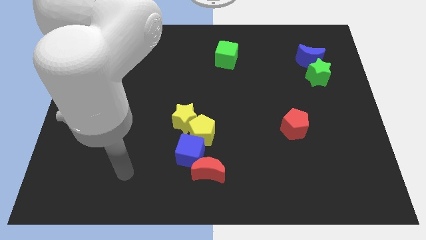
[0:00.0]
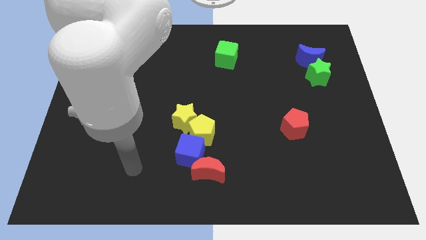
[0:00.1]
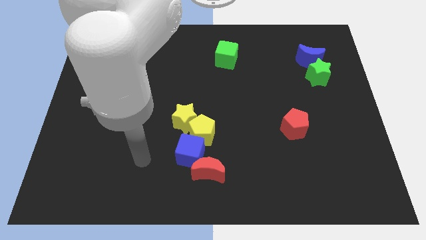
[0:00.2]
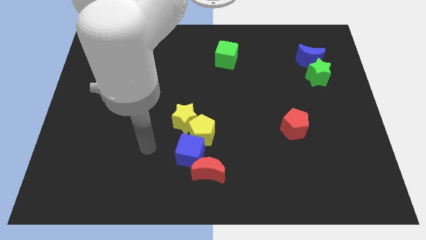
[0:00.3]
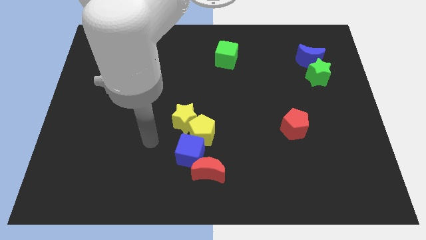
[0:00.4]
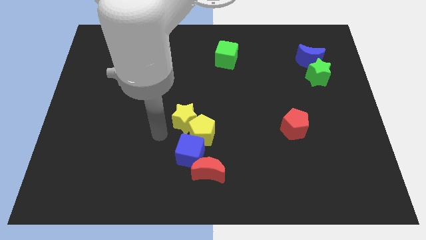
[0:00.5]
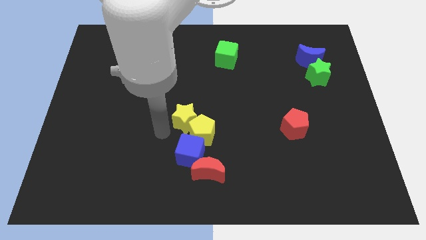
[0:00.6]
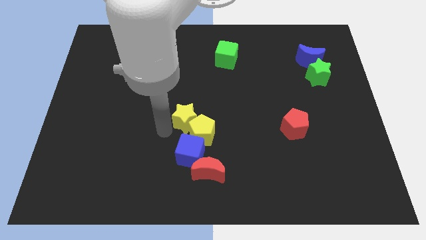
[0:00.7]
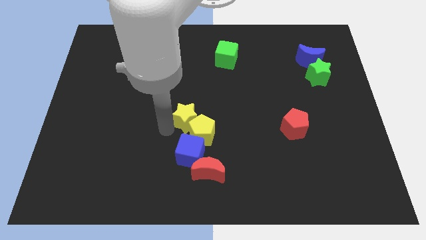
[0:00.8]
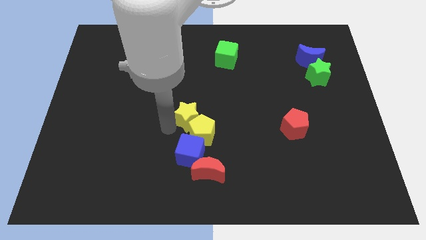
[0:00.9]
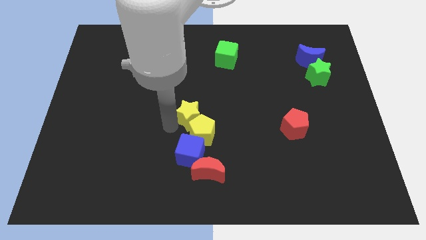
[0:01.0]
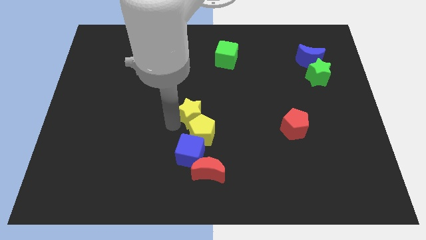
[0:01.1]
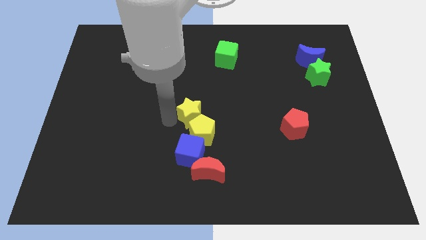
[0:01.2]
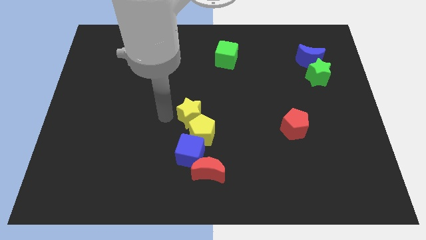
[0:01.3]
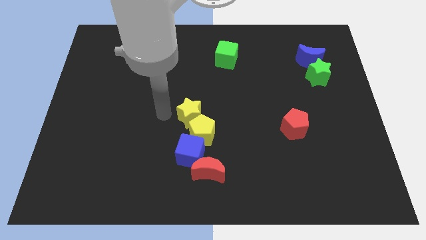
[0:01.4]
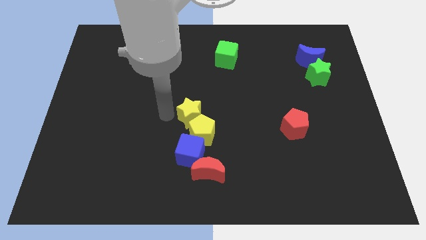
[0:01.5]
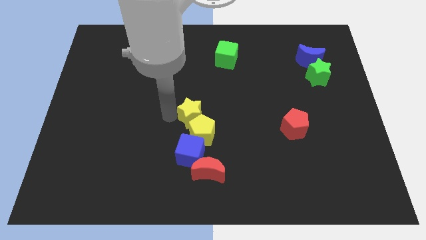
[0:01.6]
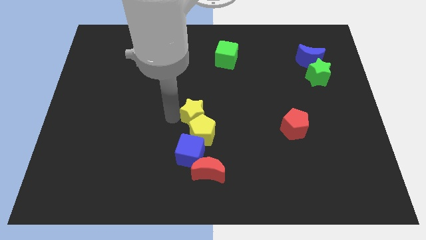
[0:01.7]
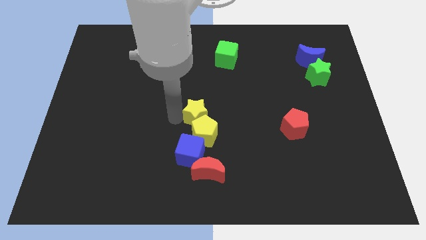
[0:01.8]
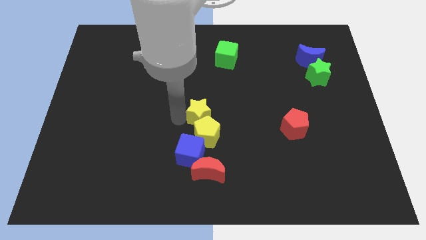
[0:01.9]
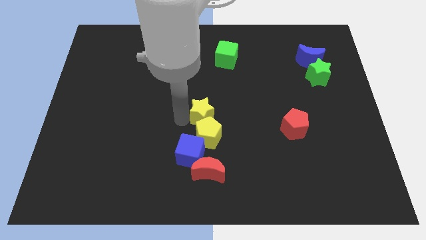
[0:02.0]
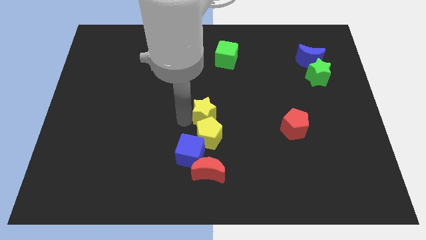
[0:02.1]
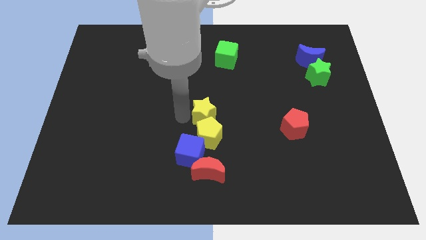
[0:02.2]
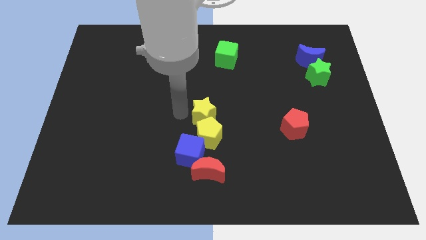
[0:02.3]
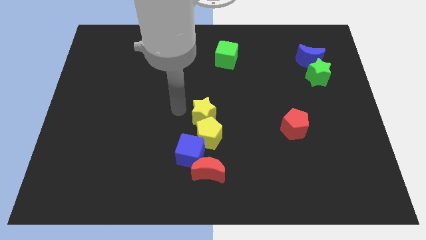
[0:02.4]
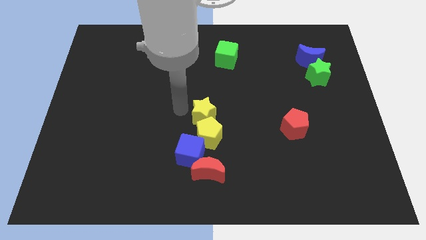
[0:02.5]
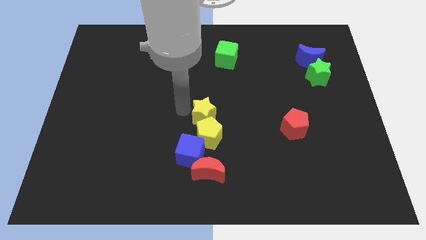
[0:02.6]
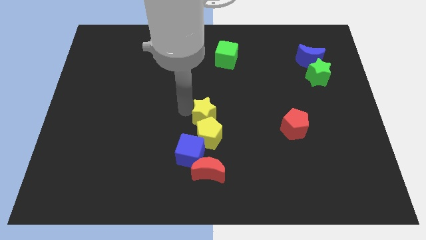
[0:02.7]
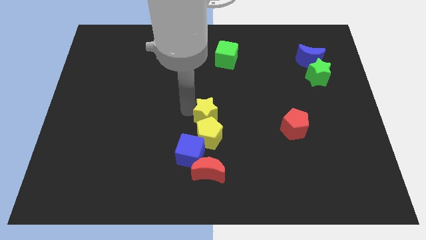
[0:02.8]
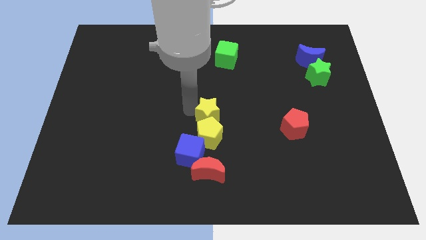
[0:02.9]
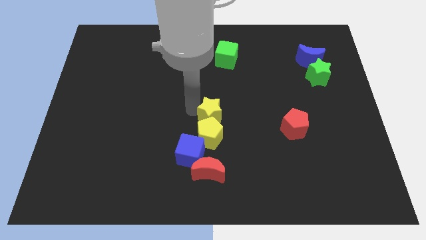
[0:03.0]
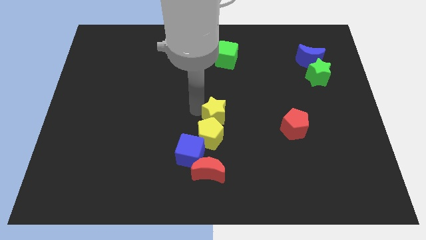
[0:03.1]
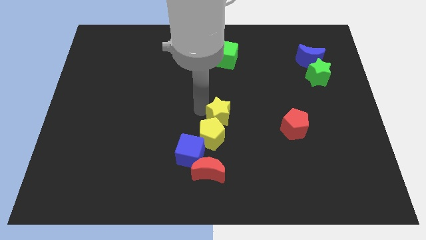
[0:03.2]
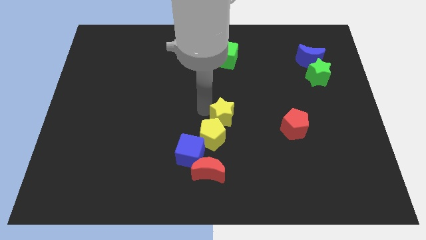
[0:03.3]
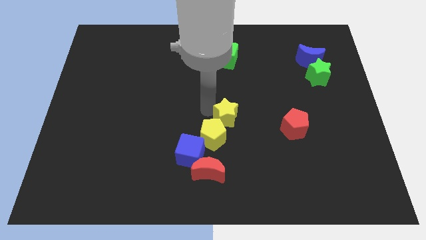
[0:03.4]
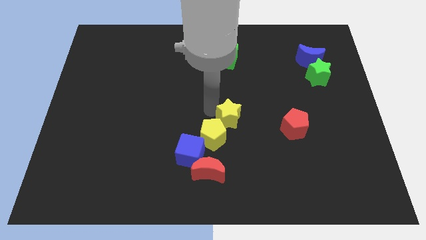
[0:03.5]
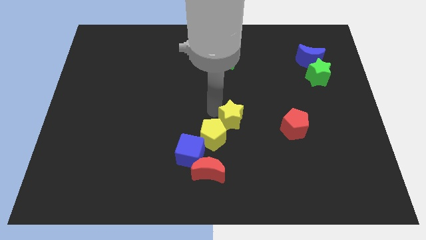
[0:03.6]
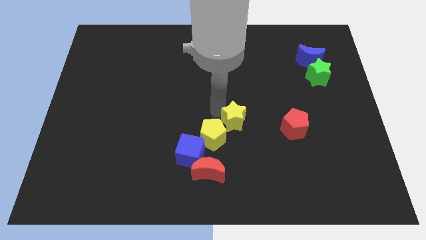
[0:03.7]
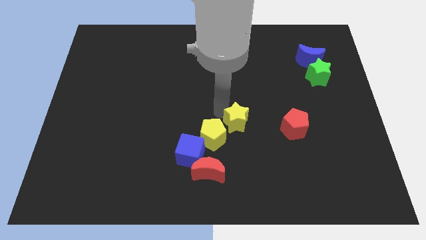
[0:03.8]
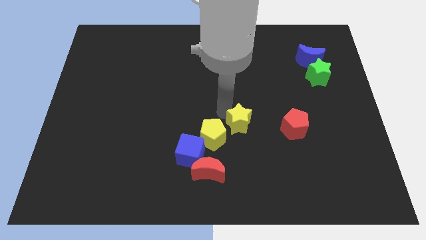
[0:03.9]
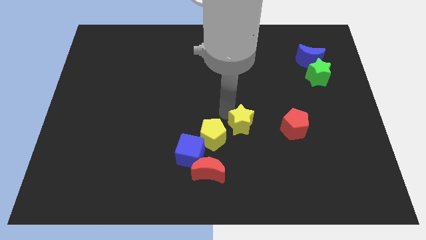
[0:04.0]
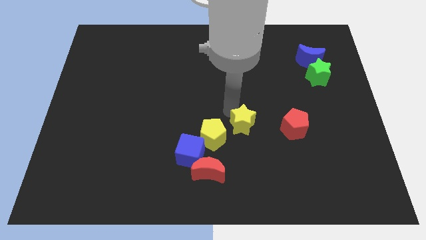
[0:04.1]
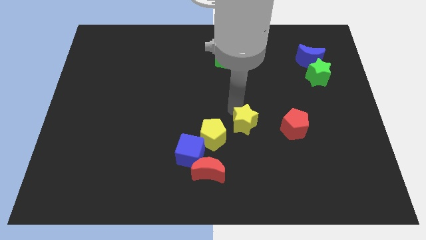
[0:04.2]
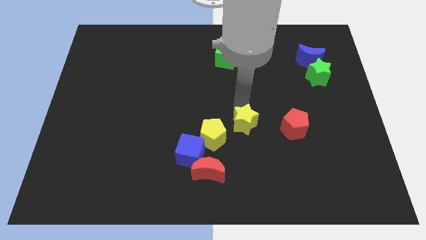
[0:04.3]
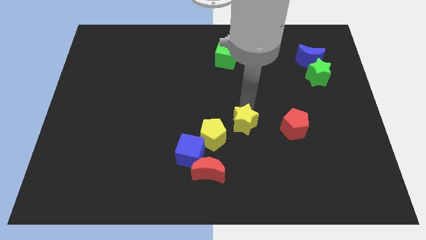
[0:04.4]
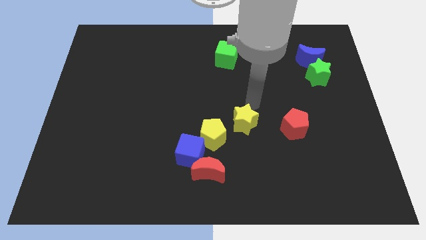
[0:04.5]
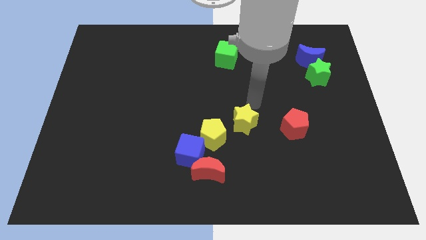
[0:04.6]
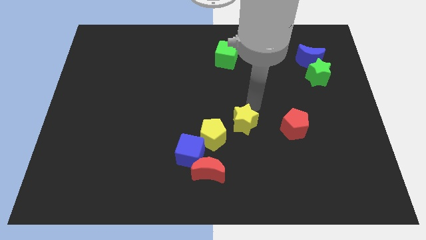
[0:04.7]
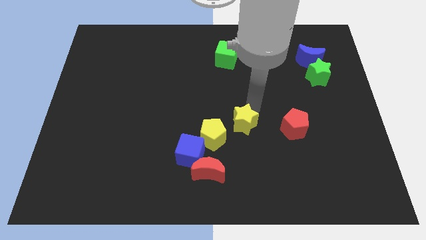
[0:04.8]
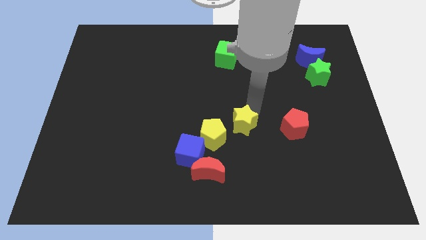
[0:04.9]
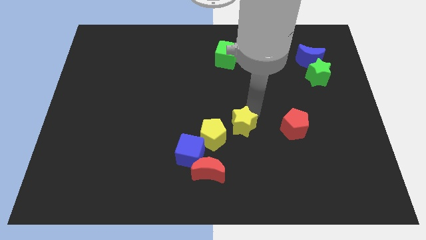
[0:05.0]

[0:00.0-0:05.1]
slightly push the yellow star diagonally downwards and right

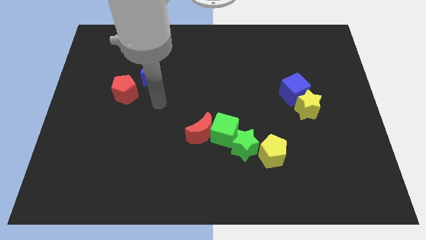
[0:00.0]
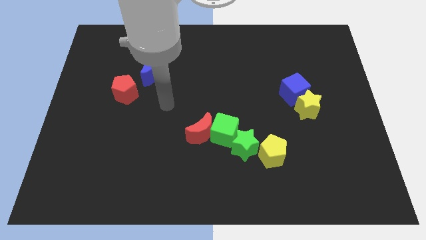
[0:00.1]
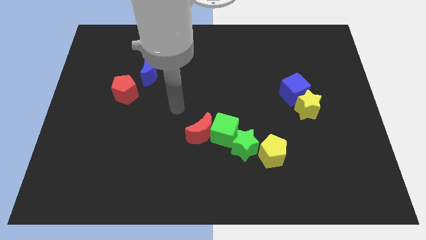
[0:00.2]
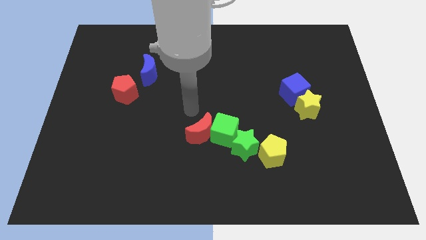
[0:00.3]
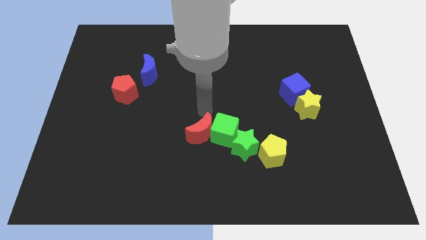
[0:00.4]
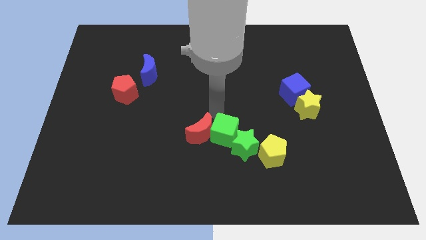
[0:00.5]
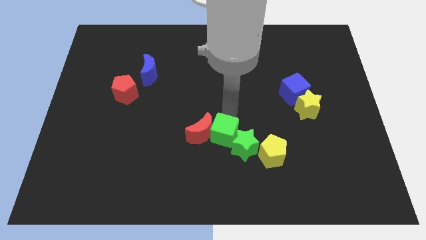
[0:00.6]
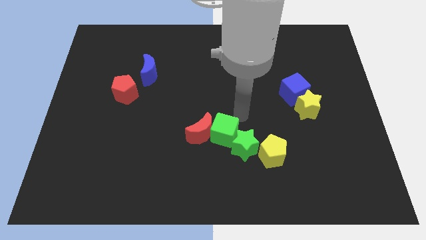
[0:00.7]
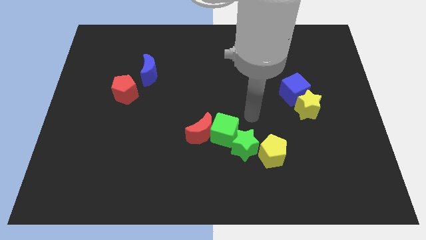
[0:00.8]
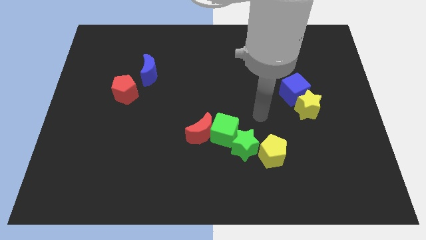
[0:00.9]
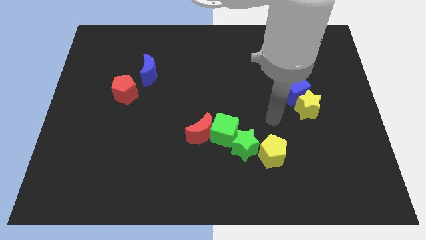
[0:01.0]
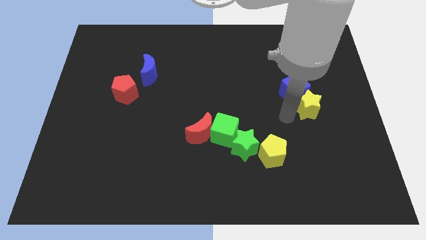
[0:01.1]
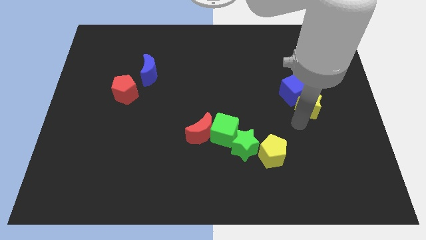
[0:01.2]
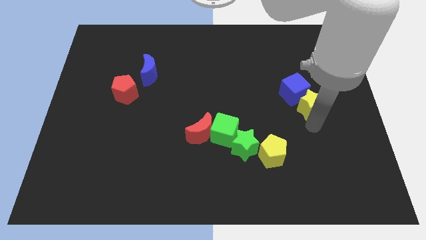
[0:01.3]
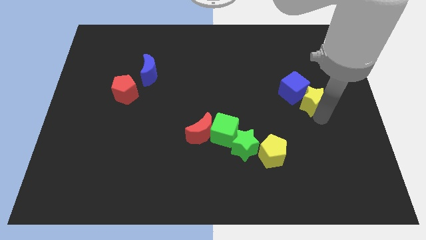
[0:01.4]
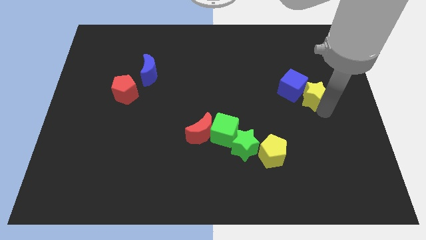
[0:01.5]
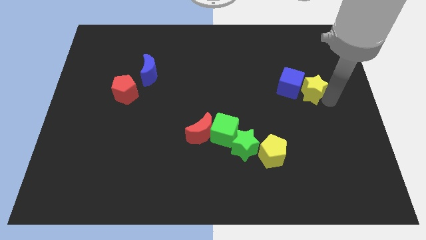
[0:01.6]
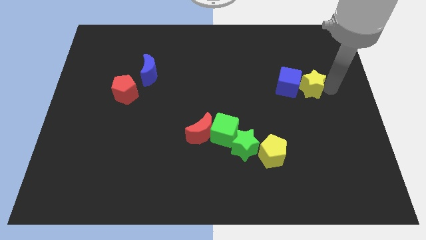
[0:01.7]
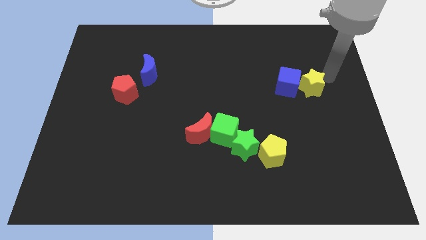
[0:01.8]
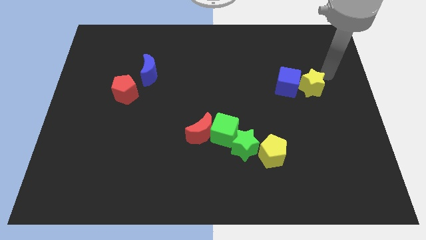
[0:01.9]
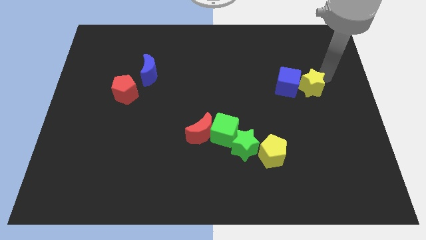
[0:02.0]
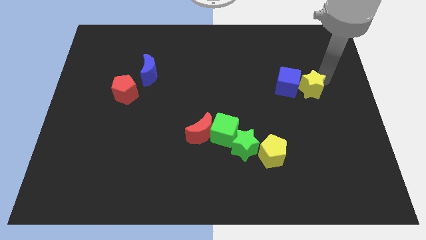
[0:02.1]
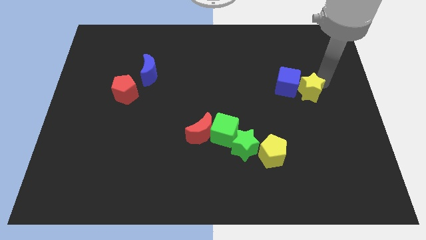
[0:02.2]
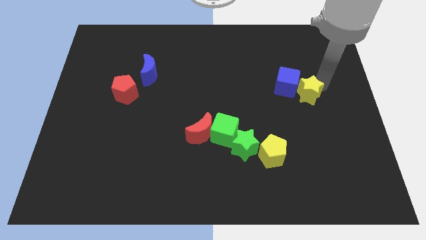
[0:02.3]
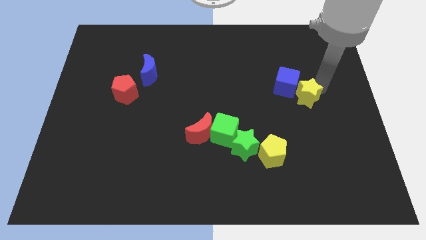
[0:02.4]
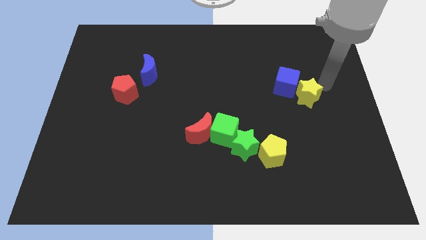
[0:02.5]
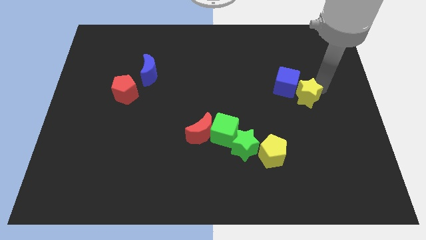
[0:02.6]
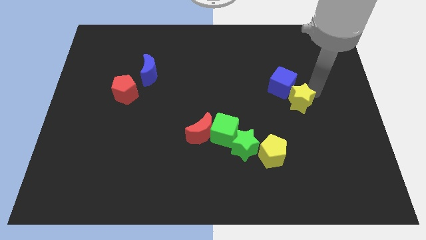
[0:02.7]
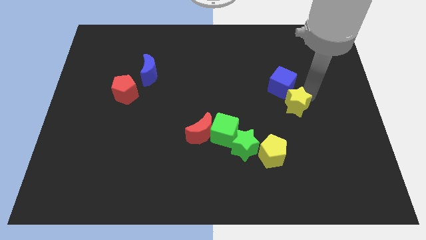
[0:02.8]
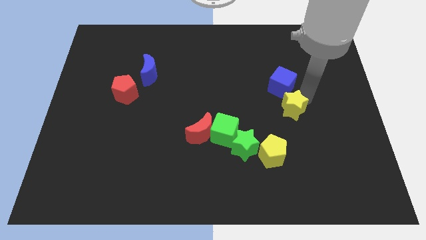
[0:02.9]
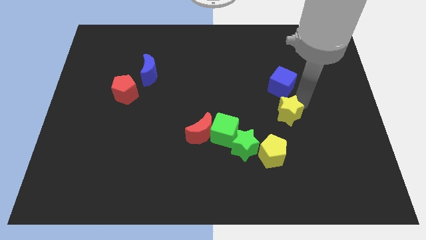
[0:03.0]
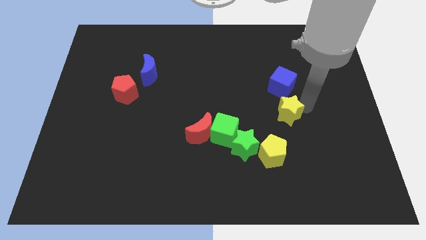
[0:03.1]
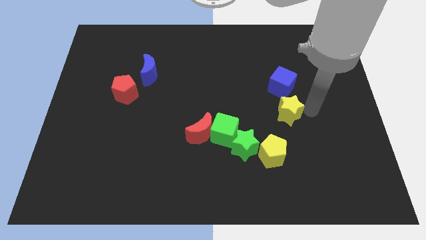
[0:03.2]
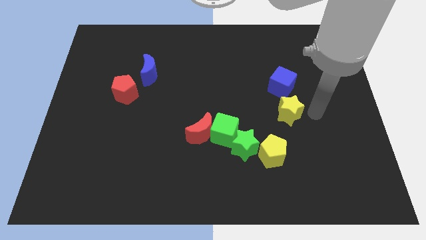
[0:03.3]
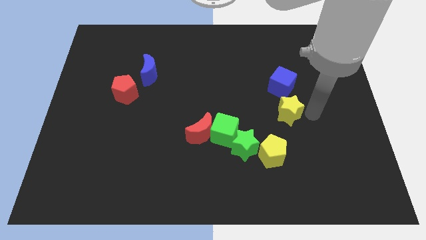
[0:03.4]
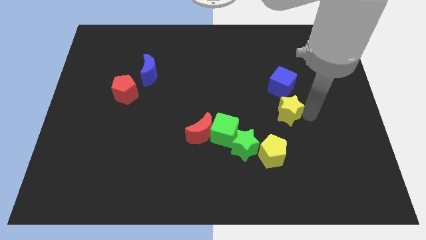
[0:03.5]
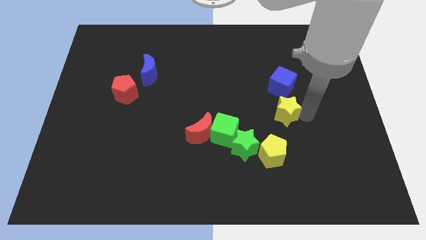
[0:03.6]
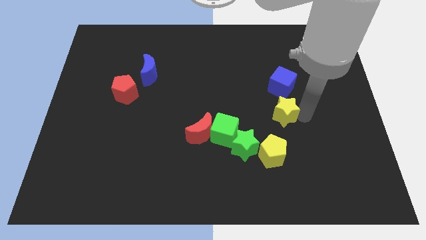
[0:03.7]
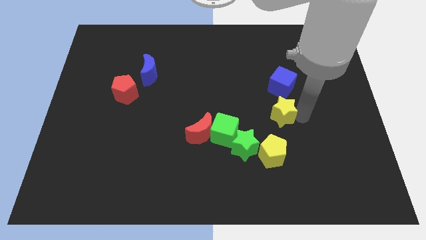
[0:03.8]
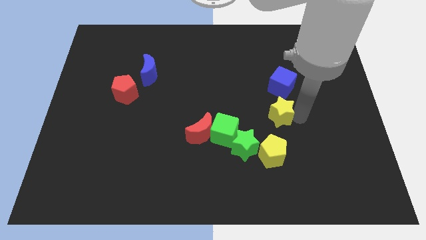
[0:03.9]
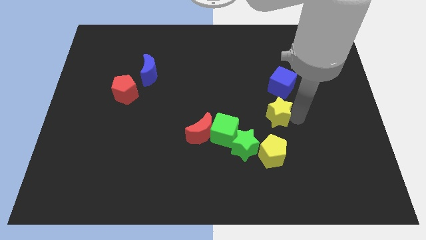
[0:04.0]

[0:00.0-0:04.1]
slightly slide the yellow star to the left
